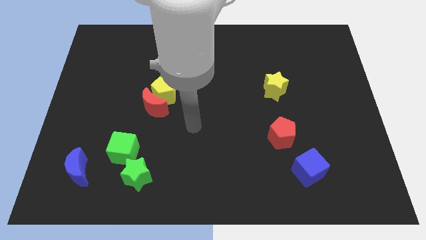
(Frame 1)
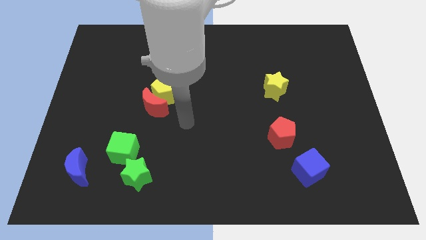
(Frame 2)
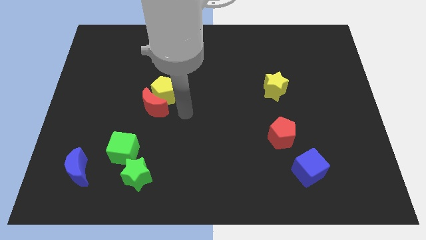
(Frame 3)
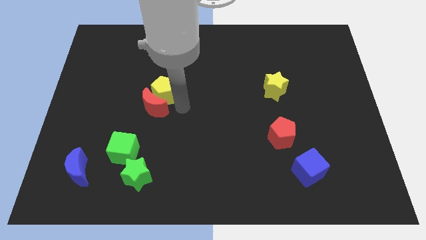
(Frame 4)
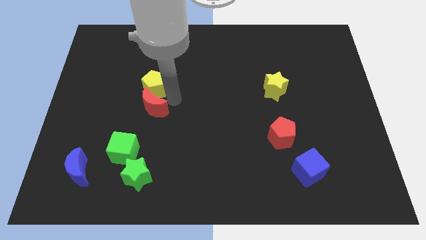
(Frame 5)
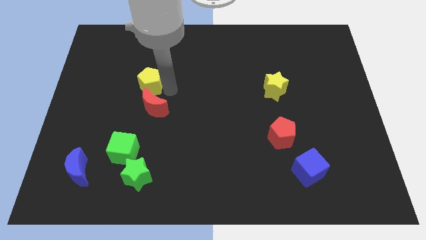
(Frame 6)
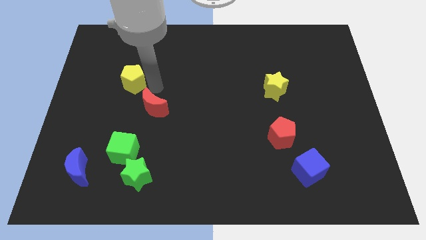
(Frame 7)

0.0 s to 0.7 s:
move the red moon away from the yellow pentagon

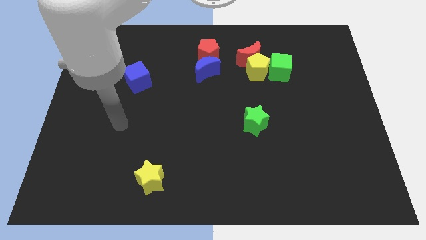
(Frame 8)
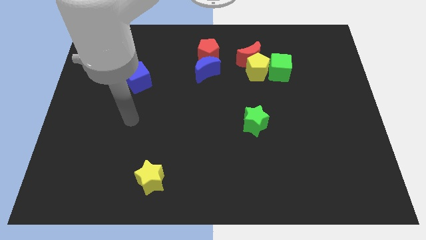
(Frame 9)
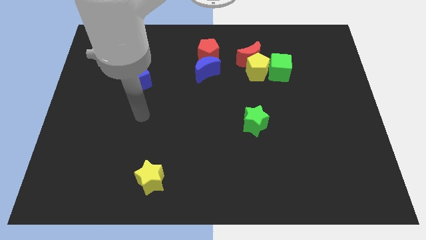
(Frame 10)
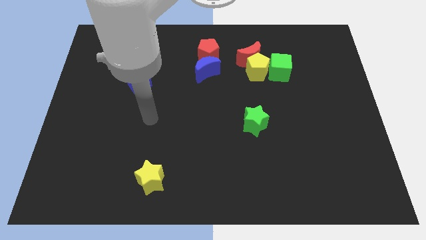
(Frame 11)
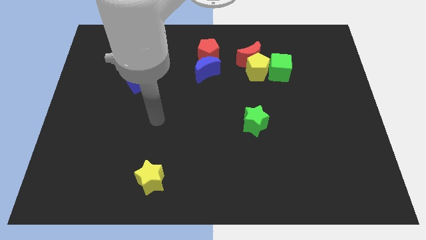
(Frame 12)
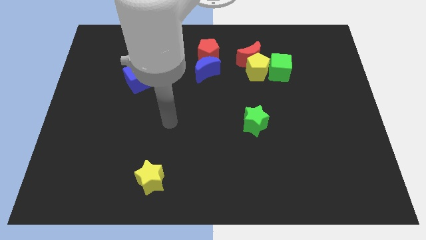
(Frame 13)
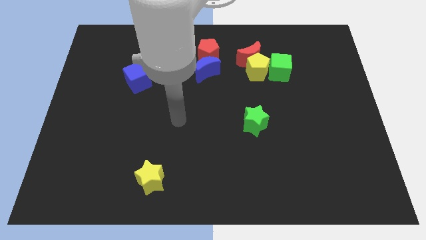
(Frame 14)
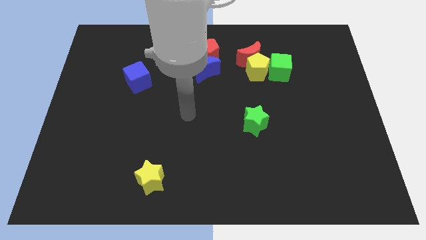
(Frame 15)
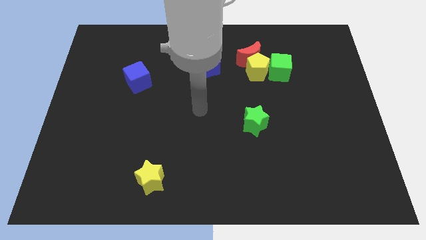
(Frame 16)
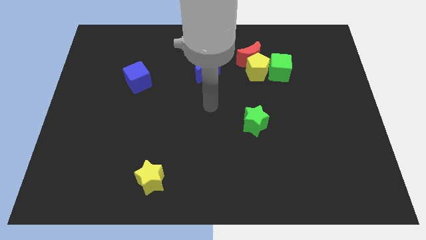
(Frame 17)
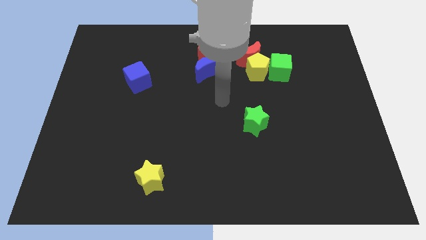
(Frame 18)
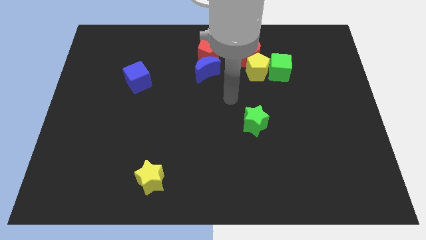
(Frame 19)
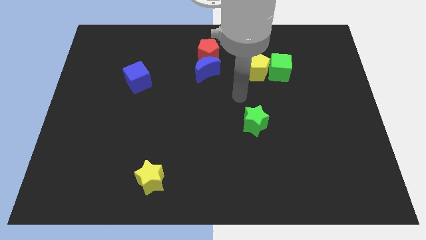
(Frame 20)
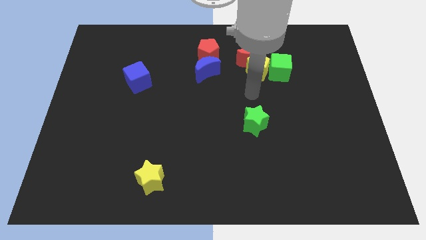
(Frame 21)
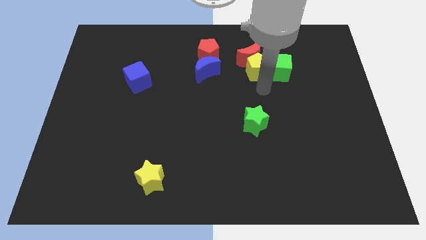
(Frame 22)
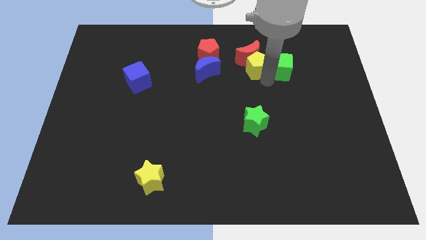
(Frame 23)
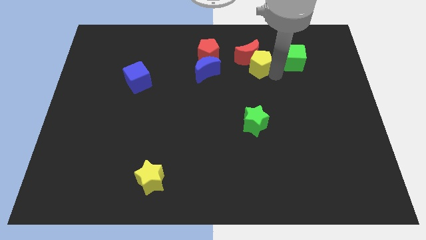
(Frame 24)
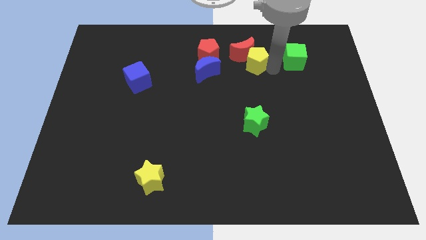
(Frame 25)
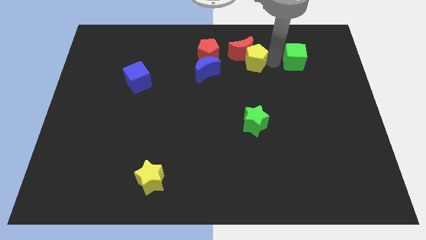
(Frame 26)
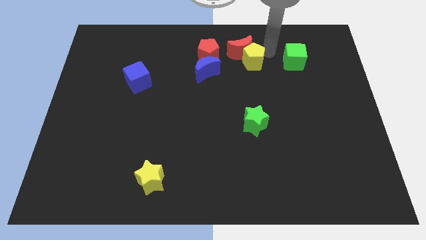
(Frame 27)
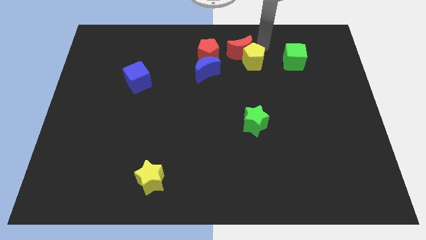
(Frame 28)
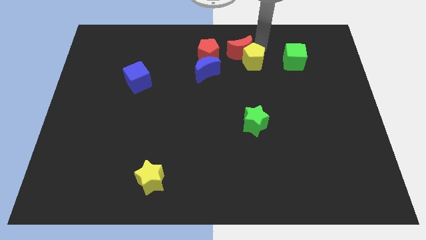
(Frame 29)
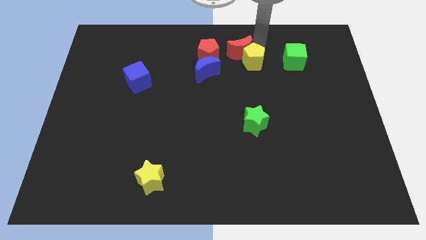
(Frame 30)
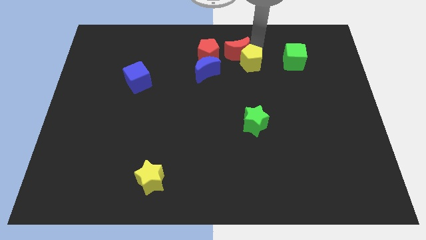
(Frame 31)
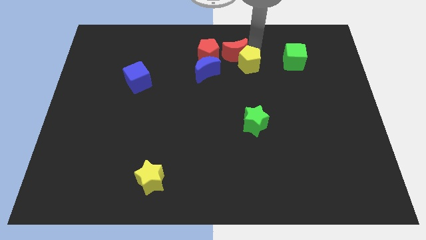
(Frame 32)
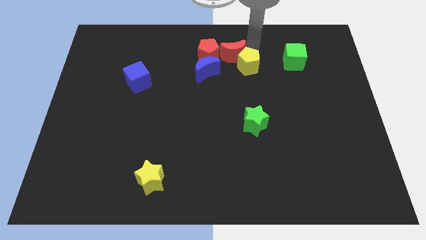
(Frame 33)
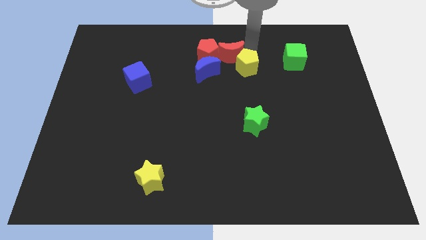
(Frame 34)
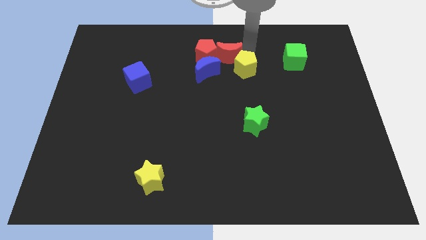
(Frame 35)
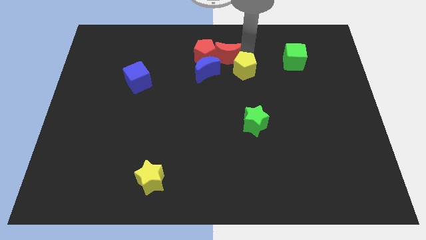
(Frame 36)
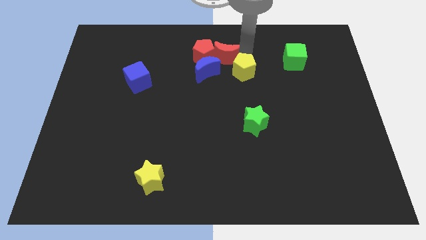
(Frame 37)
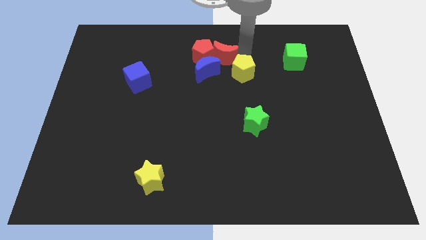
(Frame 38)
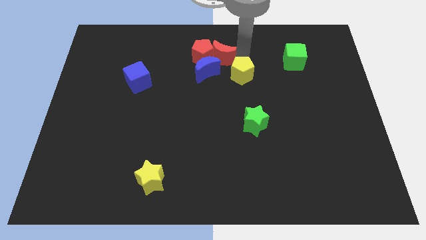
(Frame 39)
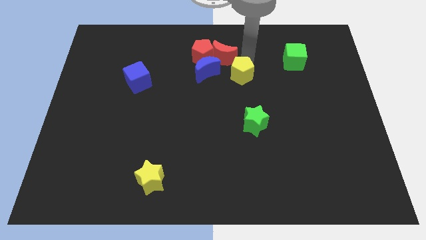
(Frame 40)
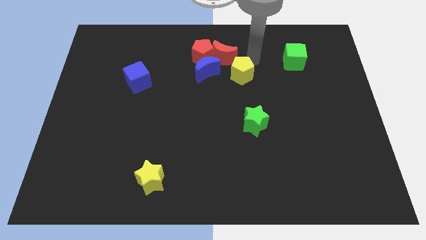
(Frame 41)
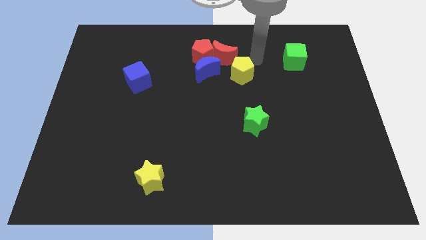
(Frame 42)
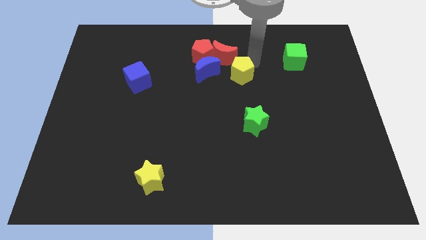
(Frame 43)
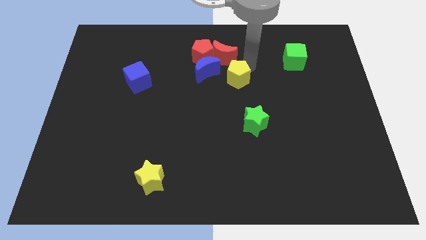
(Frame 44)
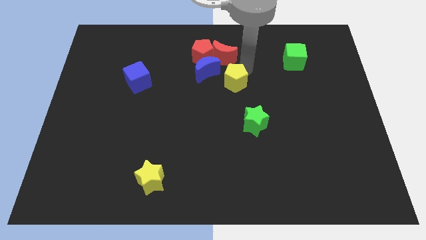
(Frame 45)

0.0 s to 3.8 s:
separate the yellow pentagon from the red moon and green cube

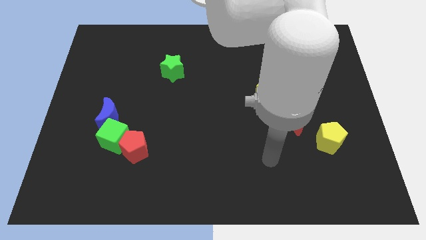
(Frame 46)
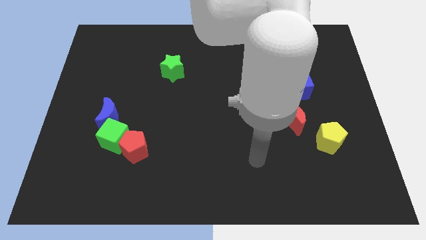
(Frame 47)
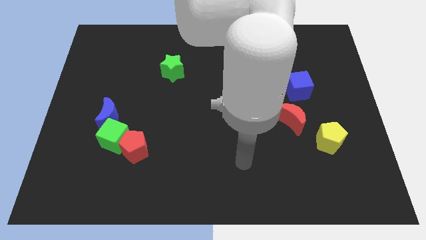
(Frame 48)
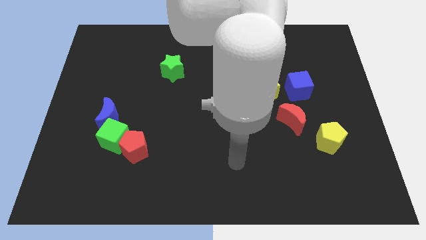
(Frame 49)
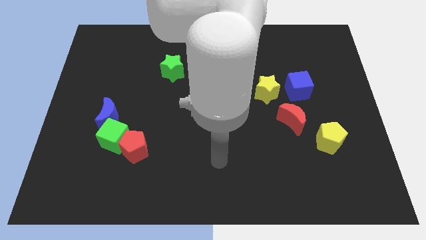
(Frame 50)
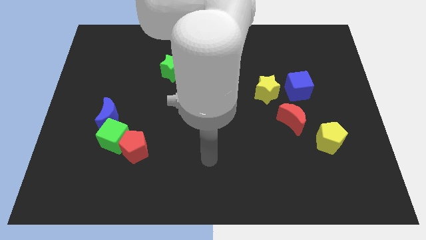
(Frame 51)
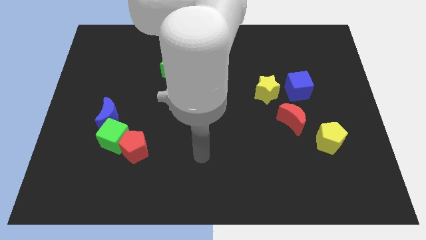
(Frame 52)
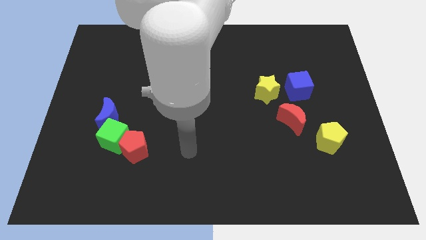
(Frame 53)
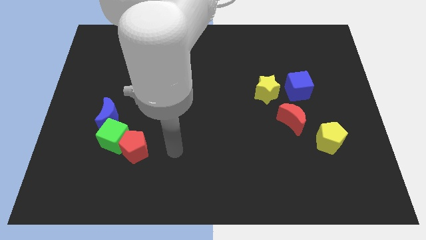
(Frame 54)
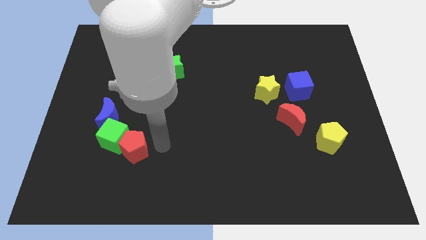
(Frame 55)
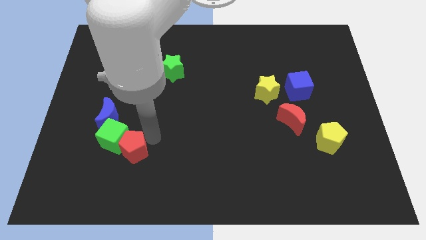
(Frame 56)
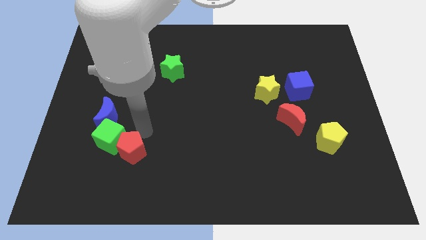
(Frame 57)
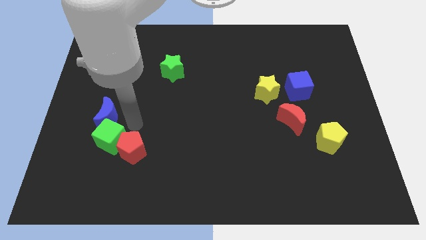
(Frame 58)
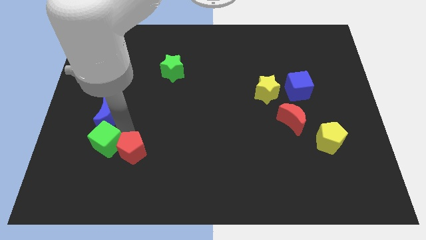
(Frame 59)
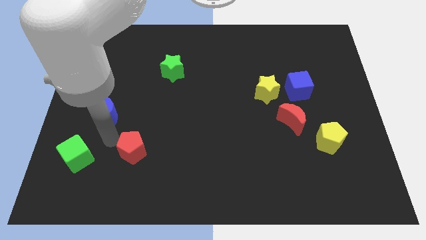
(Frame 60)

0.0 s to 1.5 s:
move the red pentagon away from the green cube

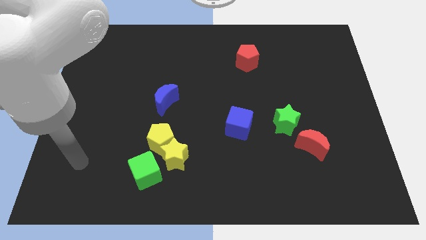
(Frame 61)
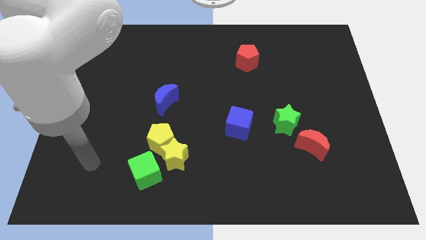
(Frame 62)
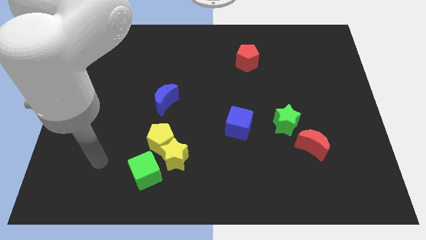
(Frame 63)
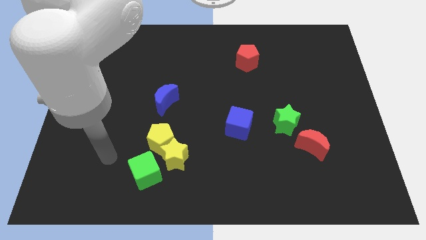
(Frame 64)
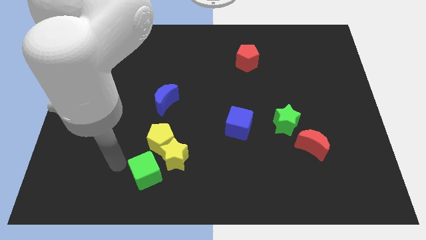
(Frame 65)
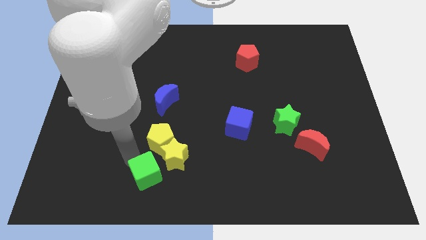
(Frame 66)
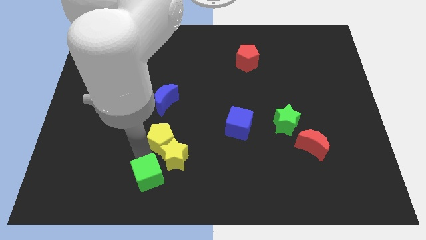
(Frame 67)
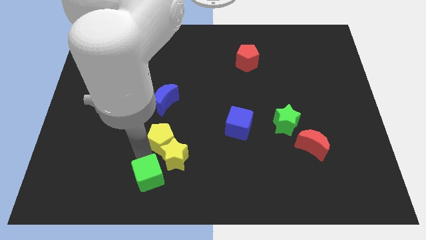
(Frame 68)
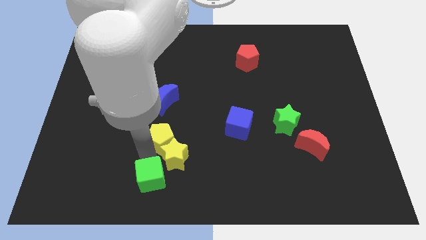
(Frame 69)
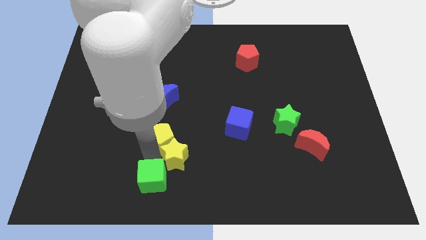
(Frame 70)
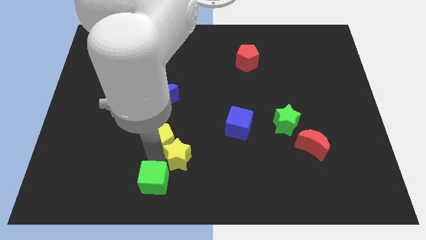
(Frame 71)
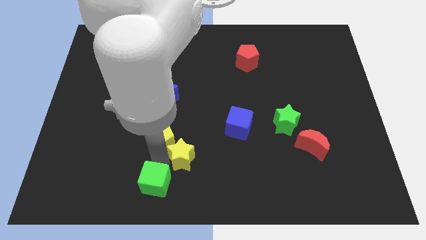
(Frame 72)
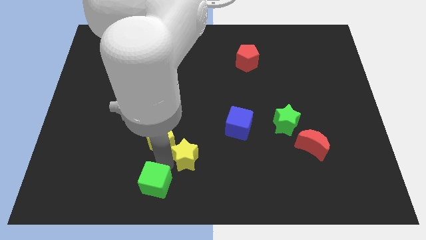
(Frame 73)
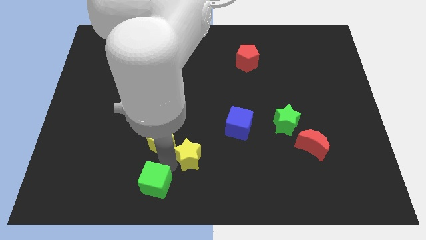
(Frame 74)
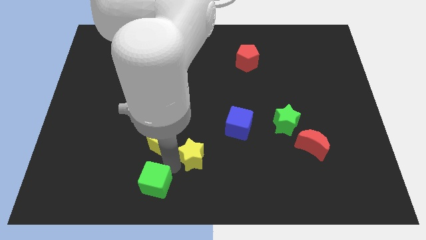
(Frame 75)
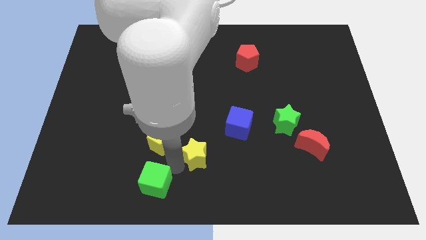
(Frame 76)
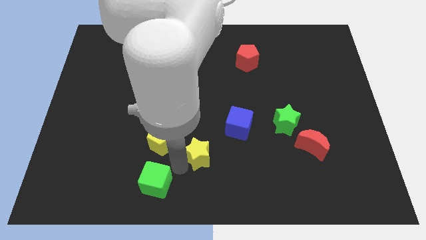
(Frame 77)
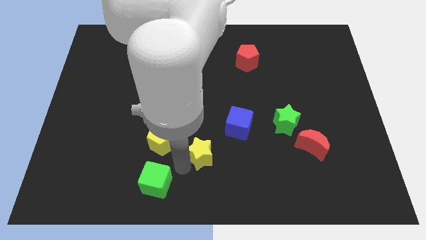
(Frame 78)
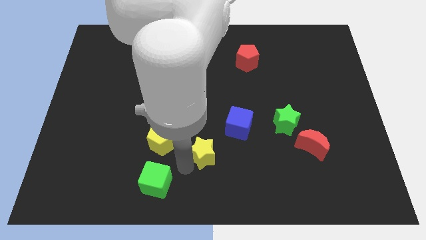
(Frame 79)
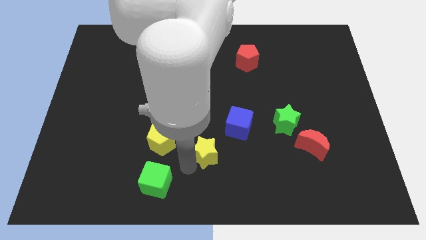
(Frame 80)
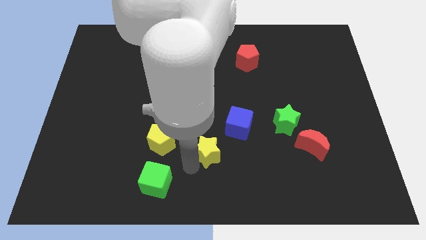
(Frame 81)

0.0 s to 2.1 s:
move the yellow star away from the yellow pentagon and green cube

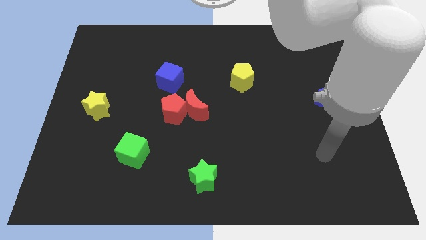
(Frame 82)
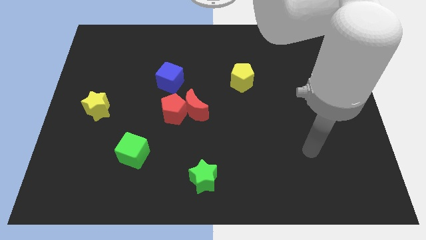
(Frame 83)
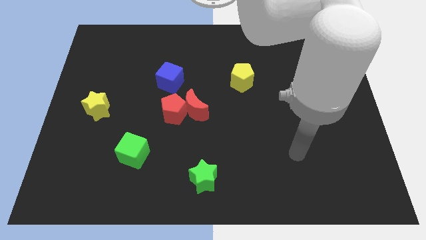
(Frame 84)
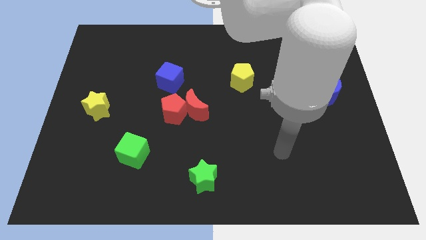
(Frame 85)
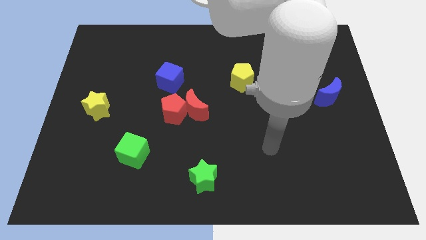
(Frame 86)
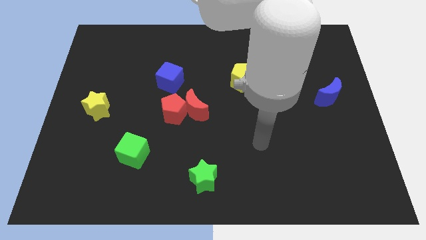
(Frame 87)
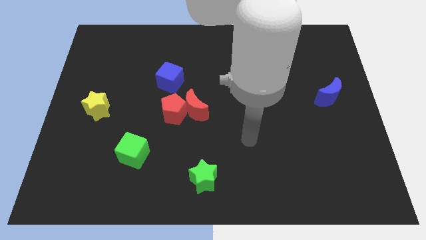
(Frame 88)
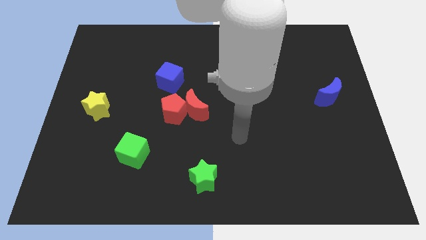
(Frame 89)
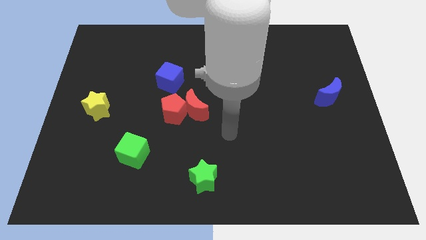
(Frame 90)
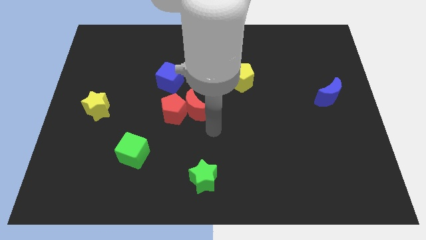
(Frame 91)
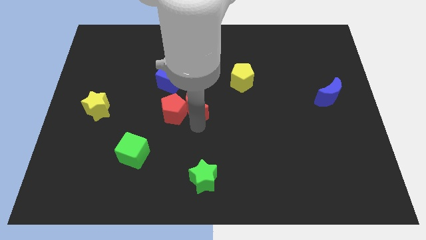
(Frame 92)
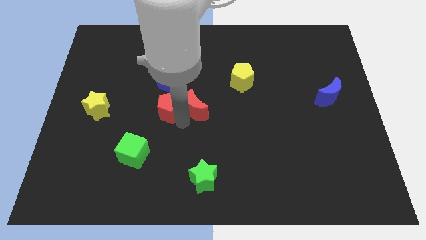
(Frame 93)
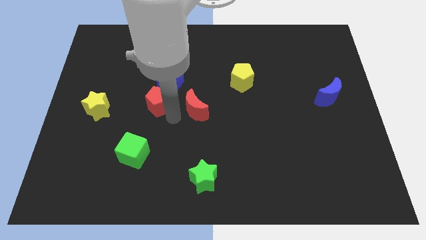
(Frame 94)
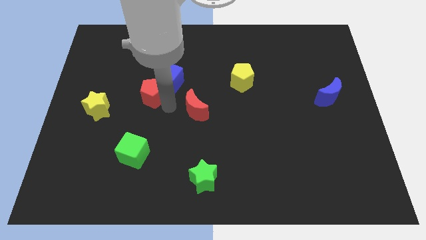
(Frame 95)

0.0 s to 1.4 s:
separate the red moon from the red pentagon
